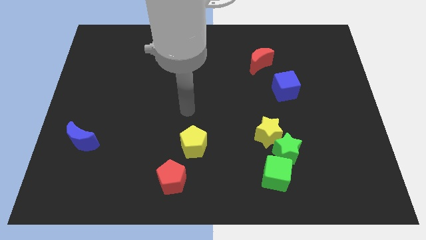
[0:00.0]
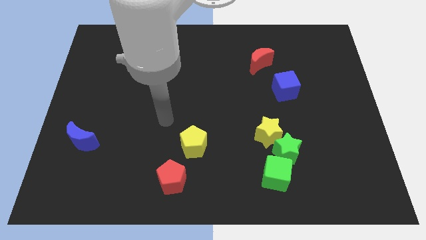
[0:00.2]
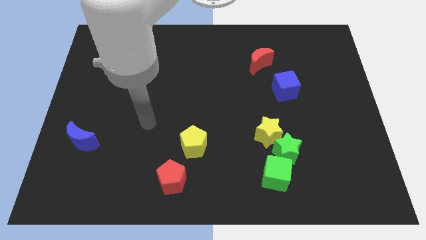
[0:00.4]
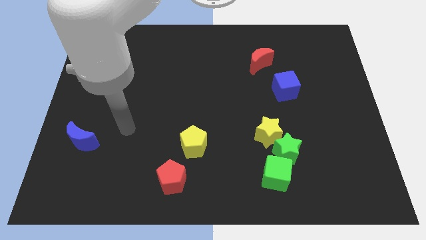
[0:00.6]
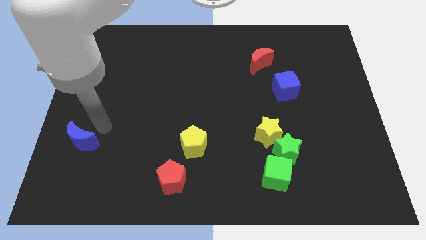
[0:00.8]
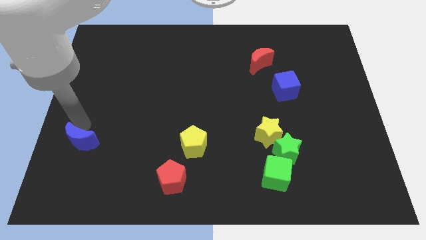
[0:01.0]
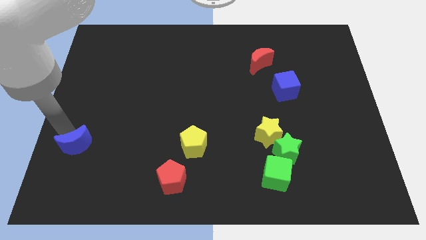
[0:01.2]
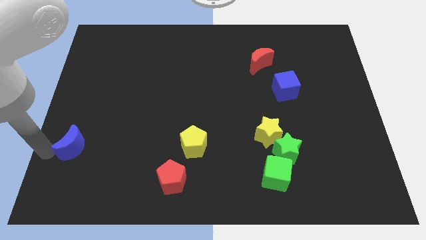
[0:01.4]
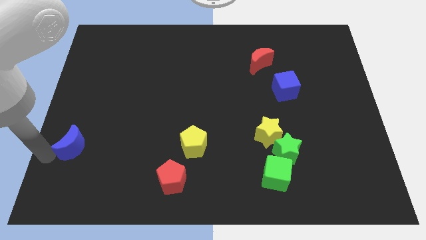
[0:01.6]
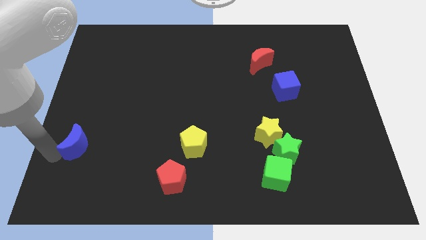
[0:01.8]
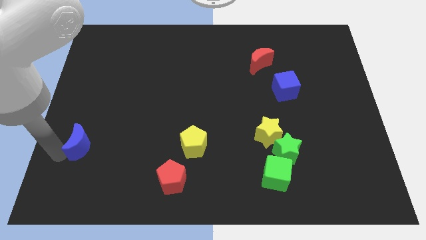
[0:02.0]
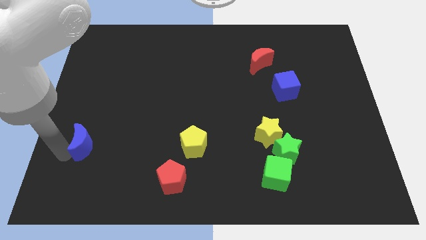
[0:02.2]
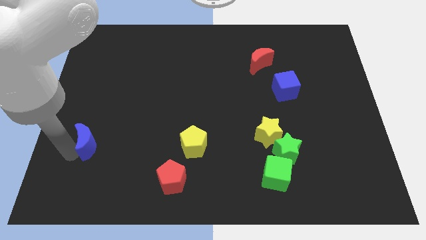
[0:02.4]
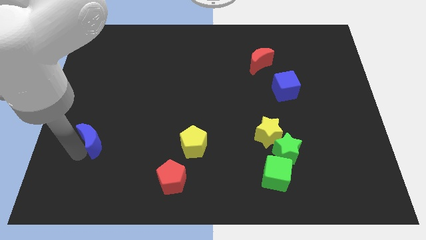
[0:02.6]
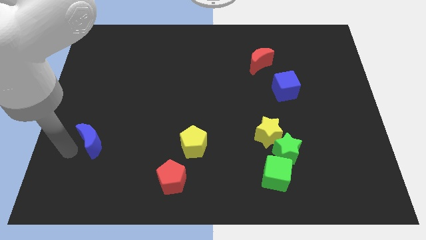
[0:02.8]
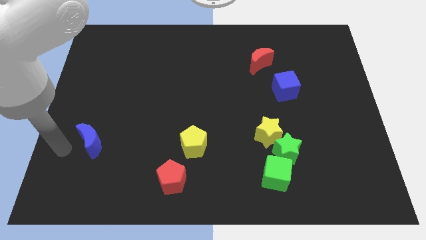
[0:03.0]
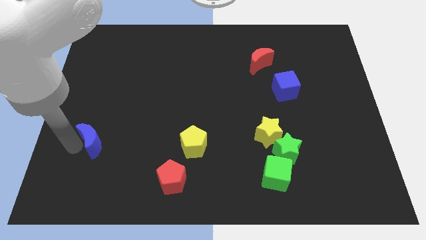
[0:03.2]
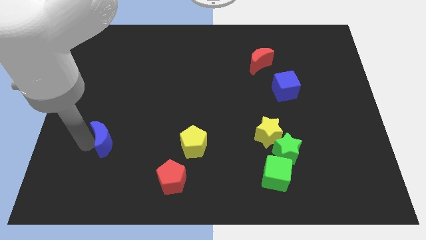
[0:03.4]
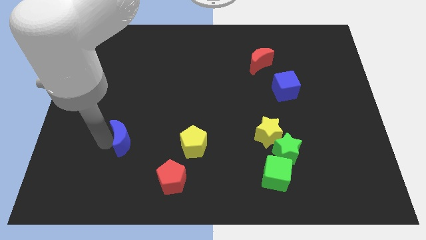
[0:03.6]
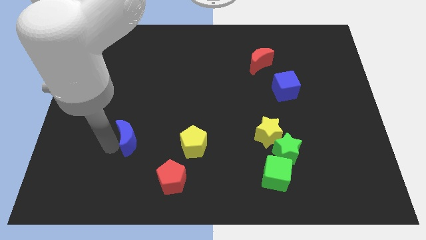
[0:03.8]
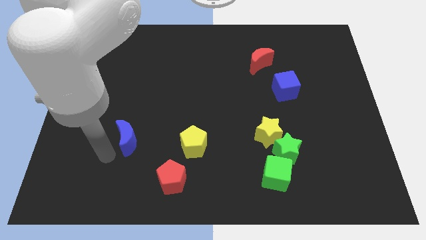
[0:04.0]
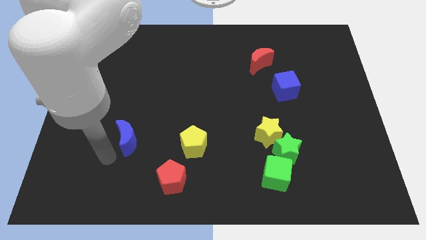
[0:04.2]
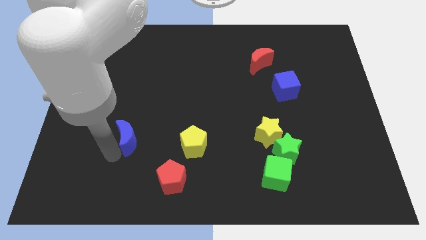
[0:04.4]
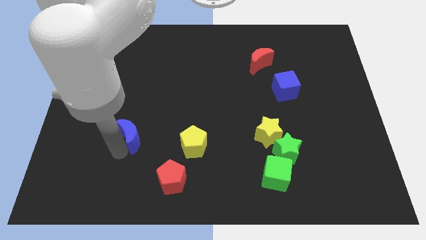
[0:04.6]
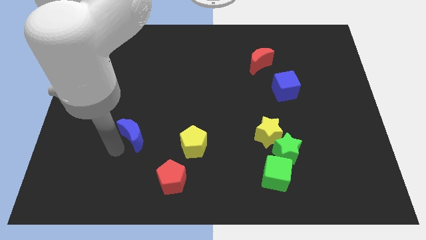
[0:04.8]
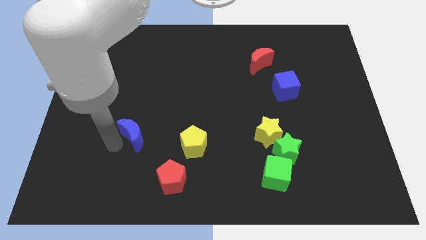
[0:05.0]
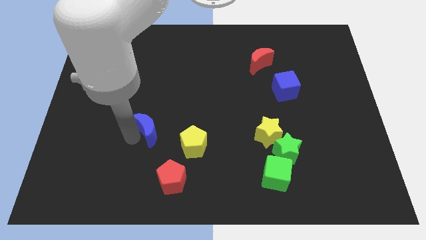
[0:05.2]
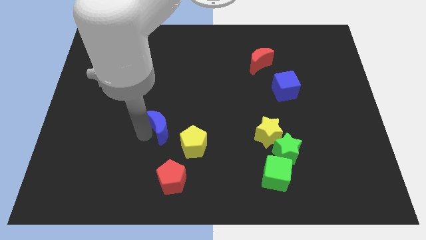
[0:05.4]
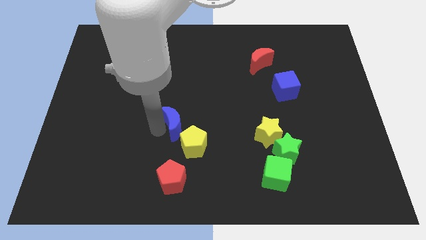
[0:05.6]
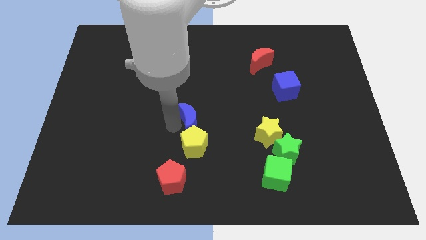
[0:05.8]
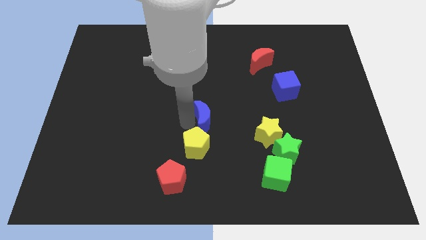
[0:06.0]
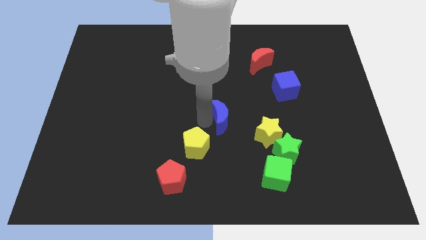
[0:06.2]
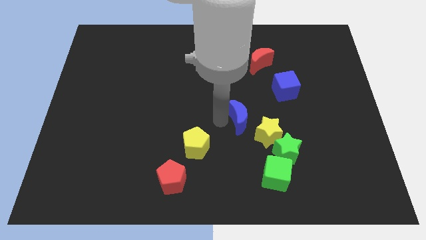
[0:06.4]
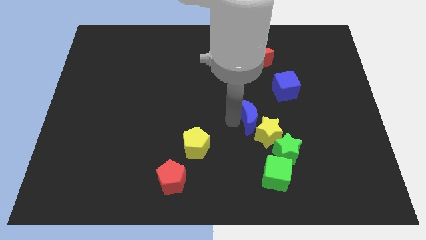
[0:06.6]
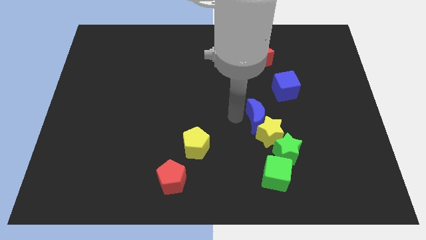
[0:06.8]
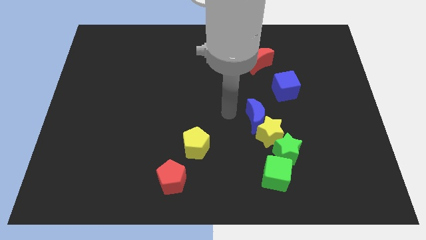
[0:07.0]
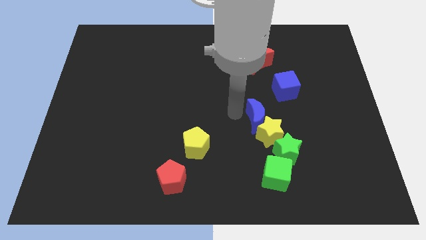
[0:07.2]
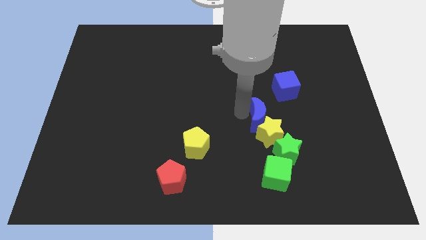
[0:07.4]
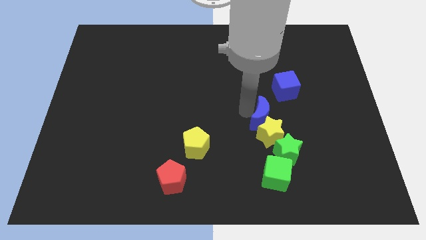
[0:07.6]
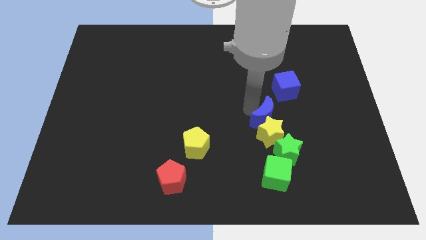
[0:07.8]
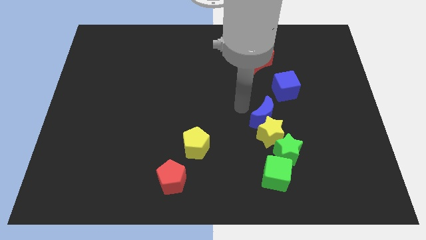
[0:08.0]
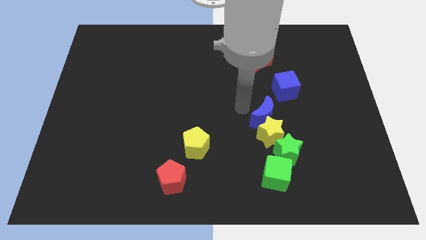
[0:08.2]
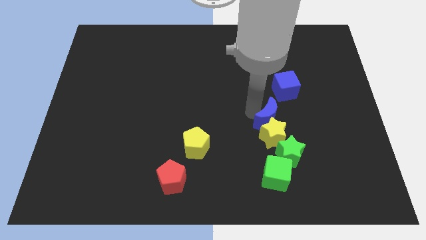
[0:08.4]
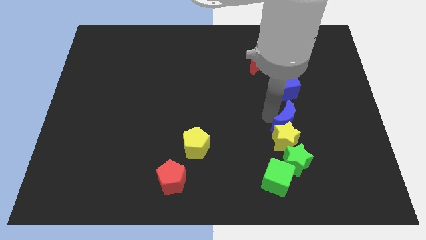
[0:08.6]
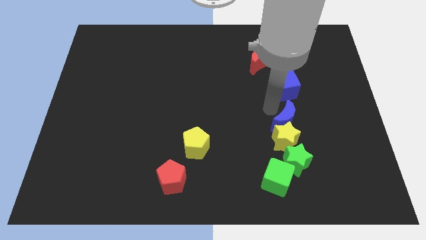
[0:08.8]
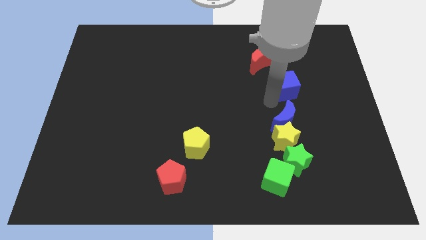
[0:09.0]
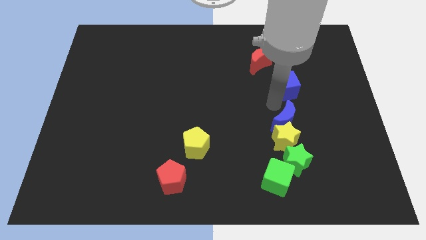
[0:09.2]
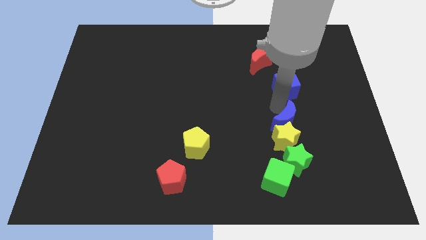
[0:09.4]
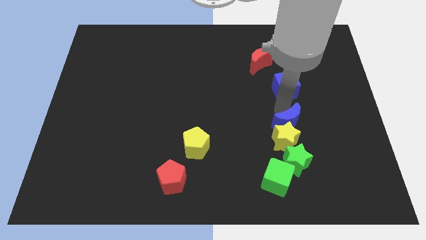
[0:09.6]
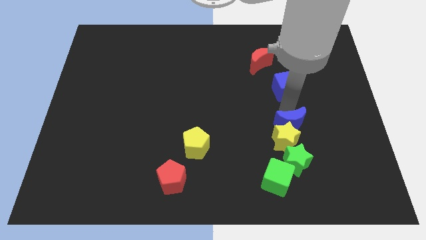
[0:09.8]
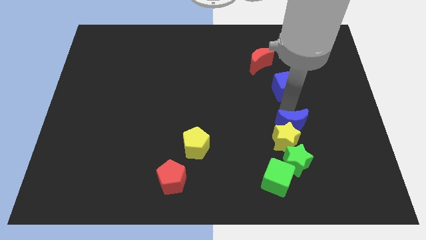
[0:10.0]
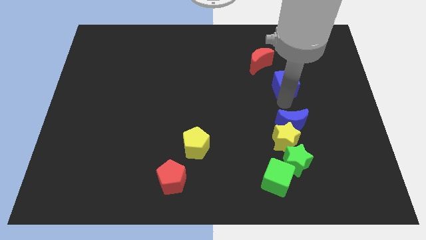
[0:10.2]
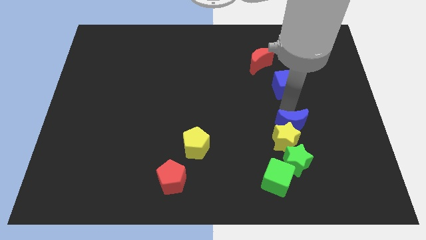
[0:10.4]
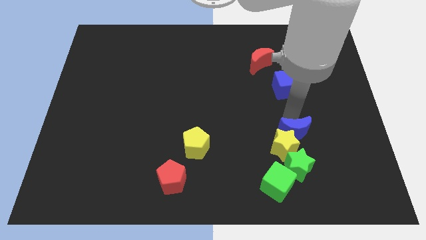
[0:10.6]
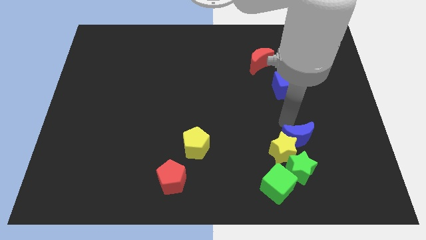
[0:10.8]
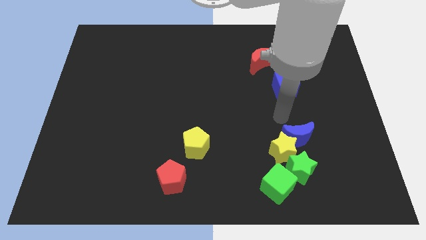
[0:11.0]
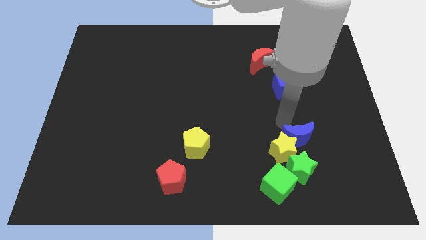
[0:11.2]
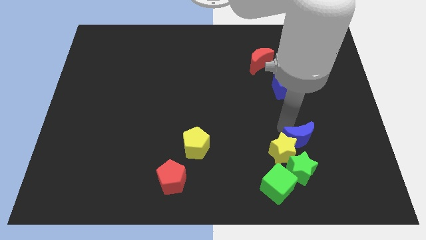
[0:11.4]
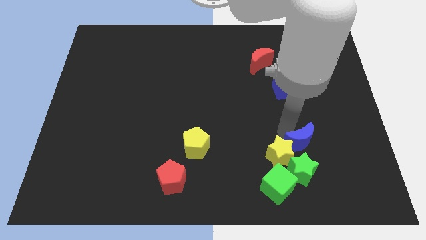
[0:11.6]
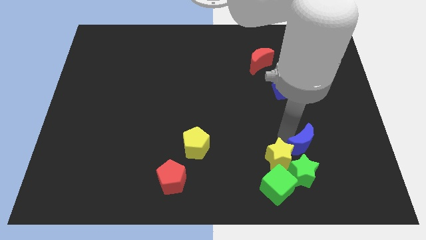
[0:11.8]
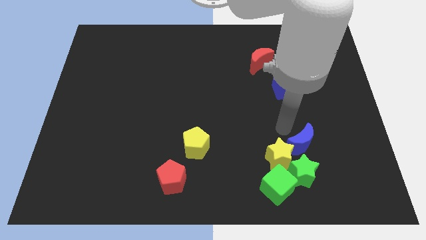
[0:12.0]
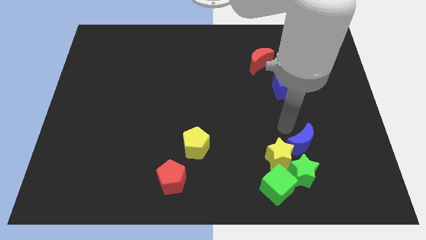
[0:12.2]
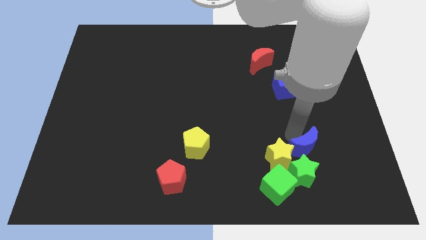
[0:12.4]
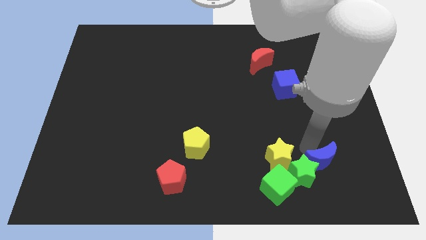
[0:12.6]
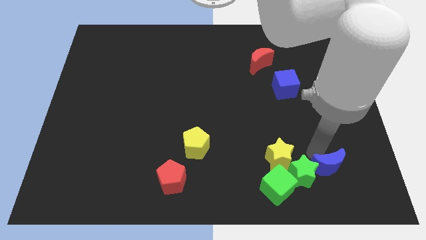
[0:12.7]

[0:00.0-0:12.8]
push the blue moon to the right side of the green cube

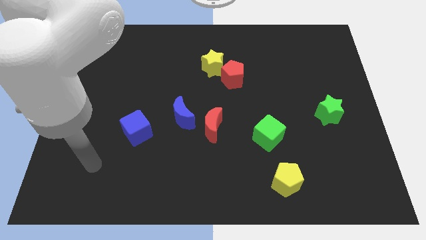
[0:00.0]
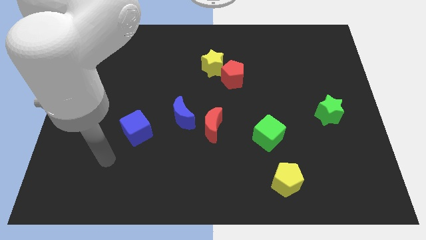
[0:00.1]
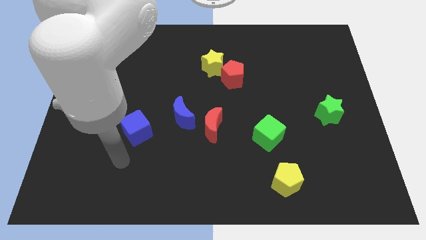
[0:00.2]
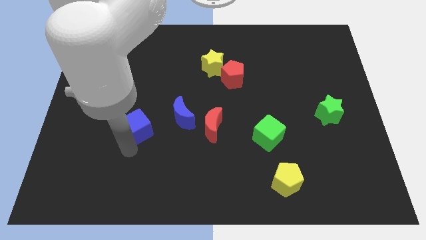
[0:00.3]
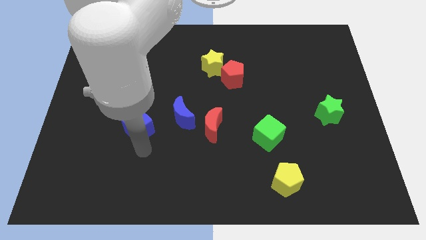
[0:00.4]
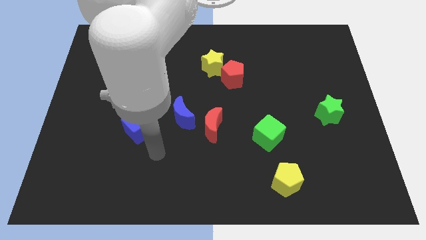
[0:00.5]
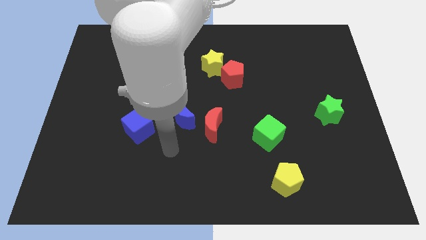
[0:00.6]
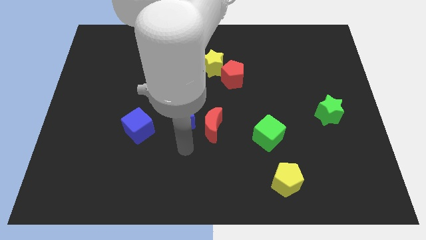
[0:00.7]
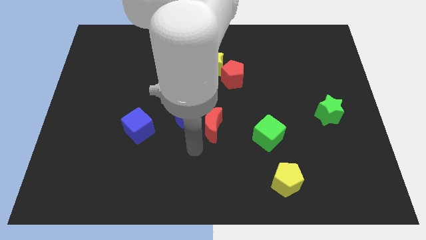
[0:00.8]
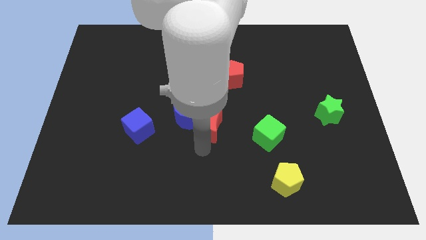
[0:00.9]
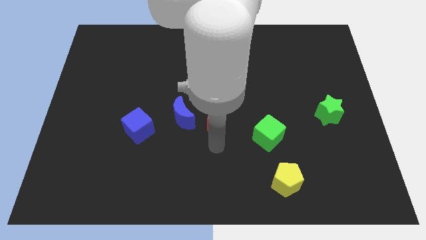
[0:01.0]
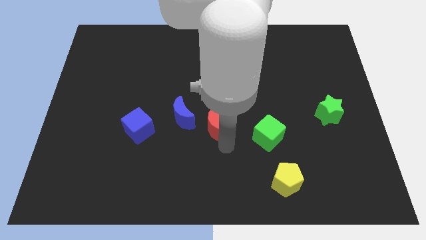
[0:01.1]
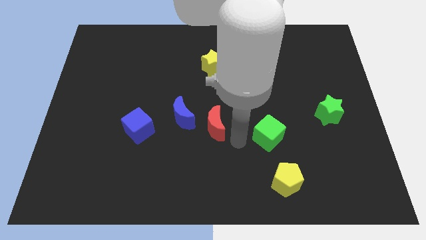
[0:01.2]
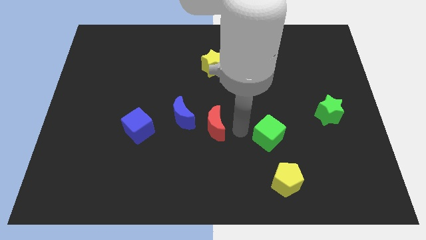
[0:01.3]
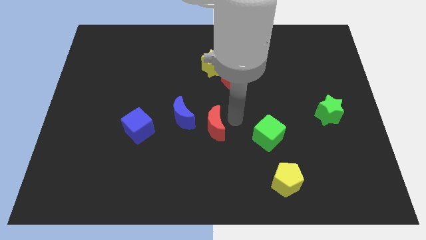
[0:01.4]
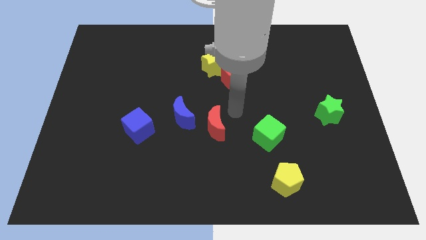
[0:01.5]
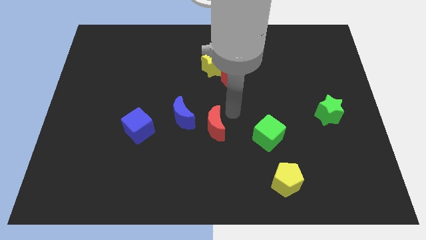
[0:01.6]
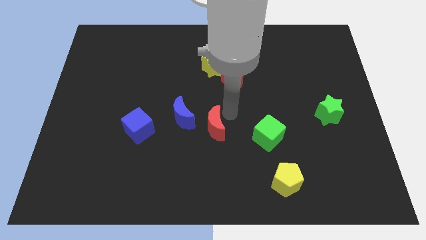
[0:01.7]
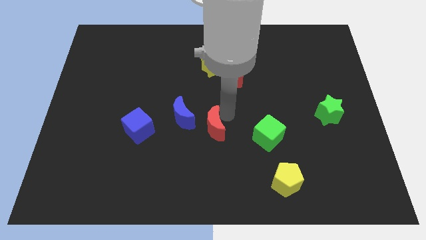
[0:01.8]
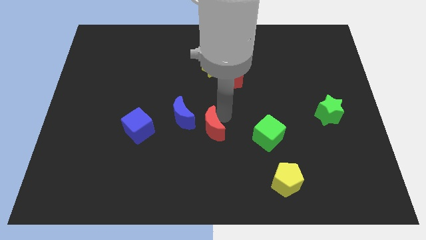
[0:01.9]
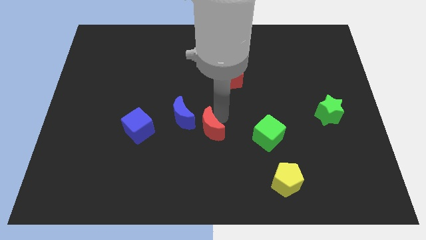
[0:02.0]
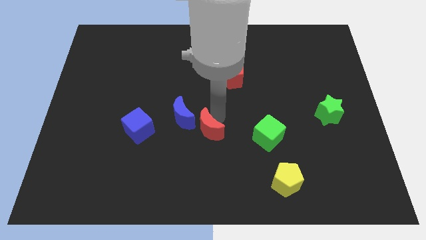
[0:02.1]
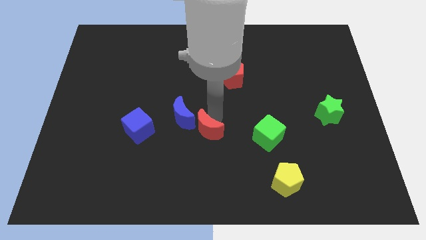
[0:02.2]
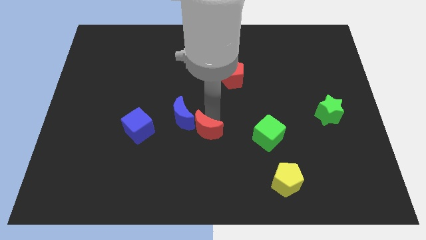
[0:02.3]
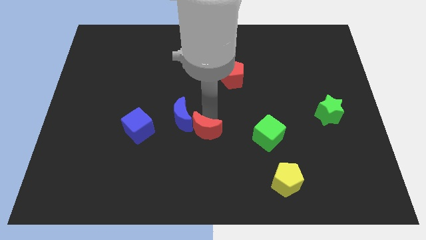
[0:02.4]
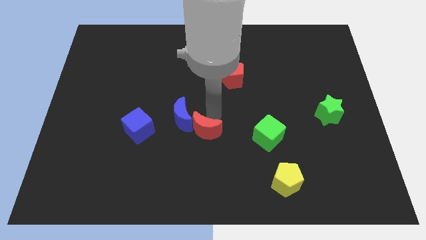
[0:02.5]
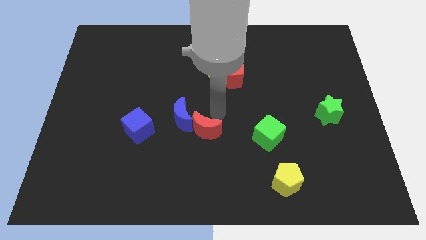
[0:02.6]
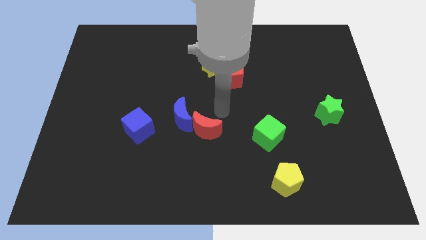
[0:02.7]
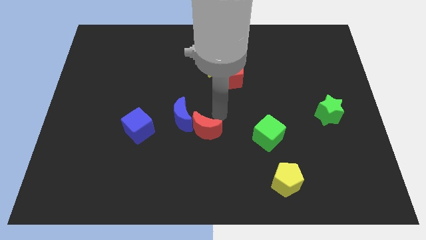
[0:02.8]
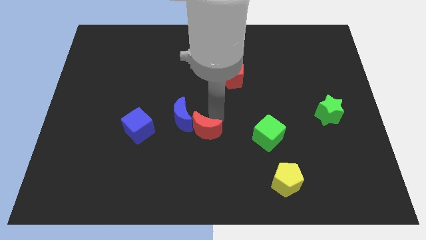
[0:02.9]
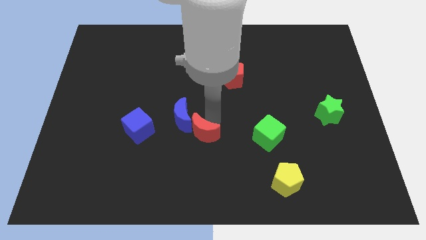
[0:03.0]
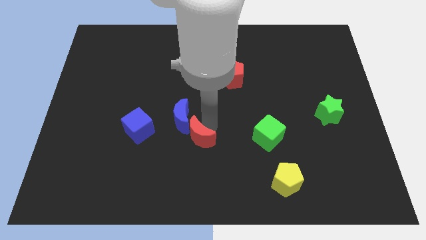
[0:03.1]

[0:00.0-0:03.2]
put the red moon below the blue moon
